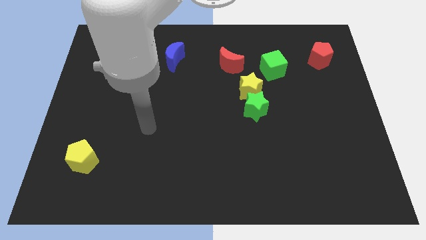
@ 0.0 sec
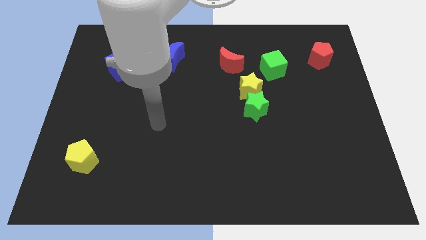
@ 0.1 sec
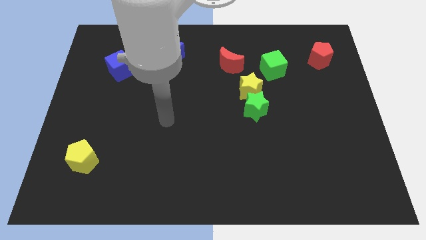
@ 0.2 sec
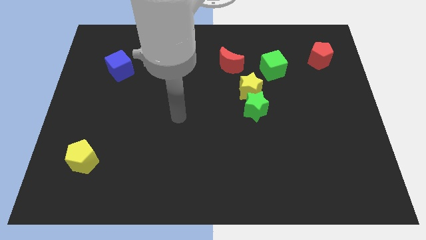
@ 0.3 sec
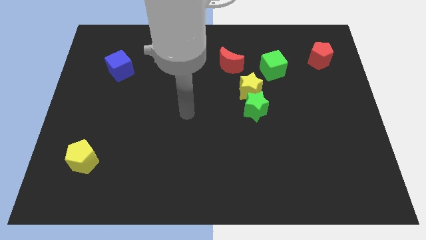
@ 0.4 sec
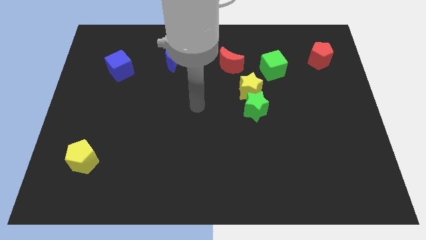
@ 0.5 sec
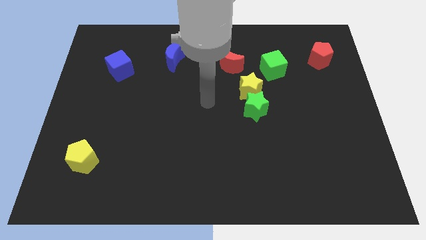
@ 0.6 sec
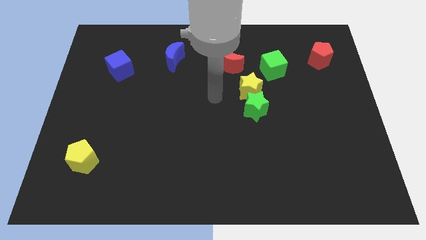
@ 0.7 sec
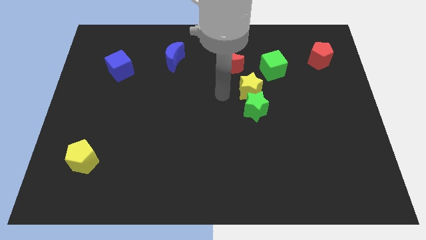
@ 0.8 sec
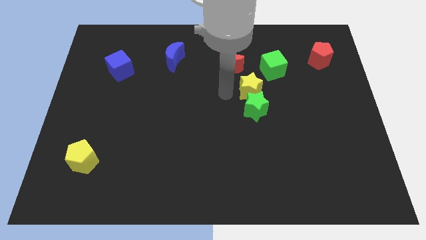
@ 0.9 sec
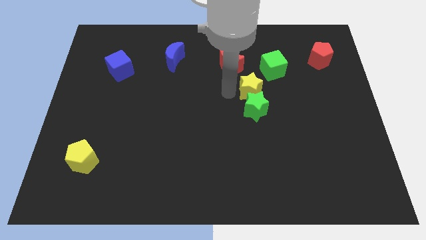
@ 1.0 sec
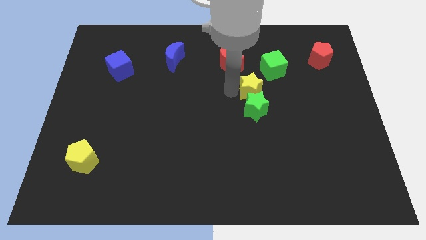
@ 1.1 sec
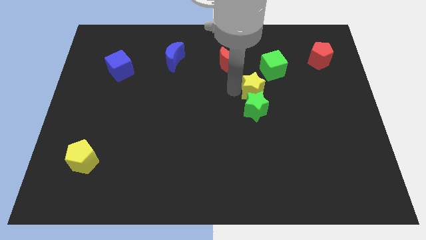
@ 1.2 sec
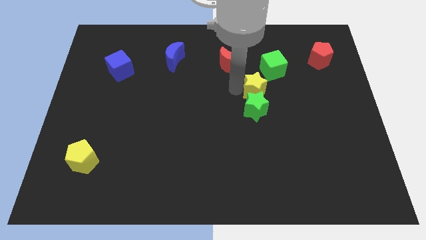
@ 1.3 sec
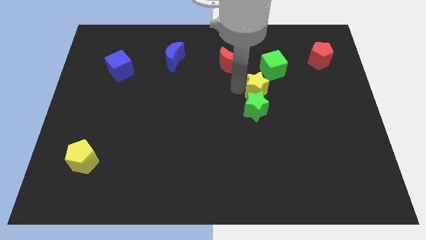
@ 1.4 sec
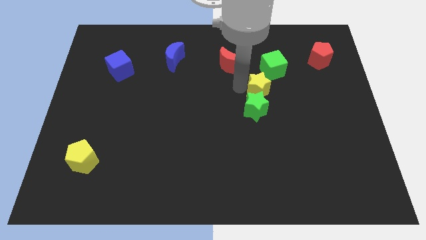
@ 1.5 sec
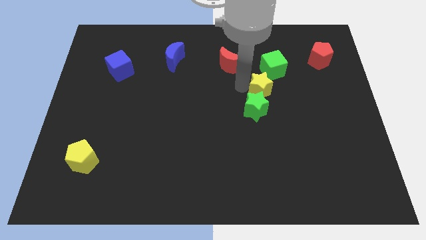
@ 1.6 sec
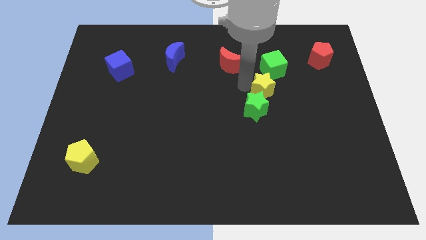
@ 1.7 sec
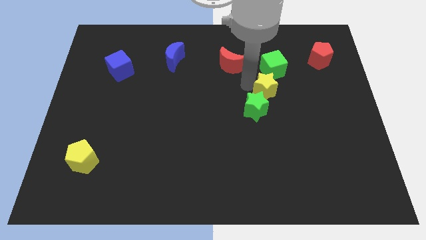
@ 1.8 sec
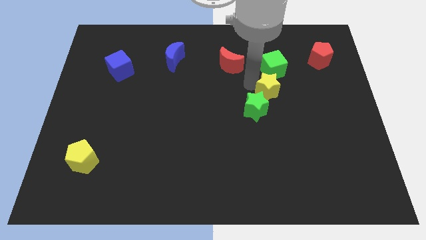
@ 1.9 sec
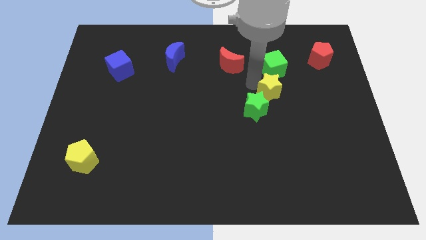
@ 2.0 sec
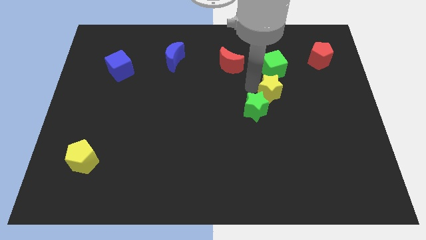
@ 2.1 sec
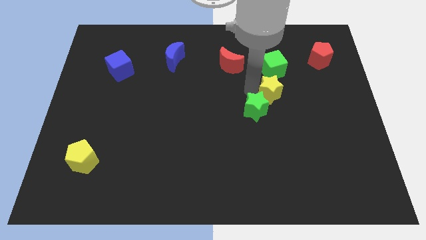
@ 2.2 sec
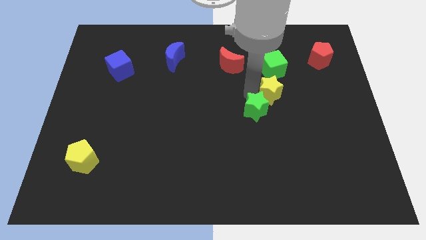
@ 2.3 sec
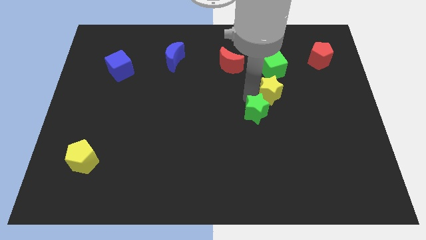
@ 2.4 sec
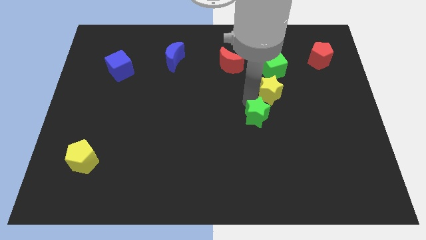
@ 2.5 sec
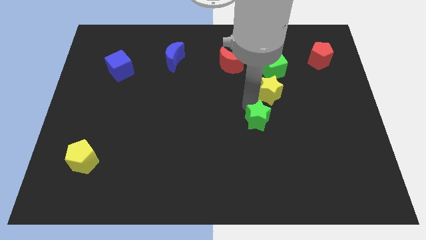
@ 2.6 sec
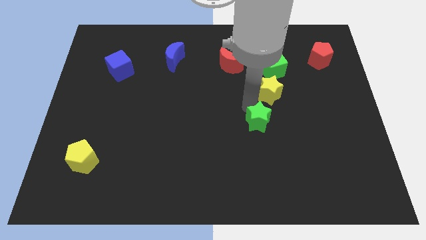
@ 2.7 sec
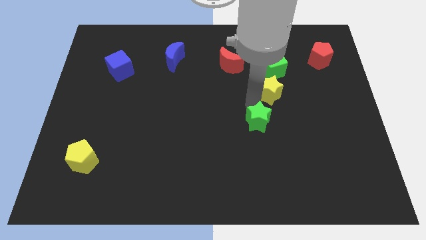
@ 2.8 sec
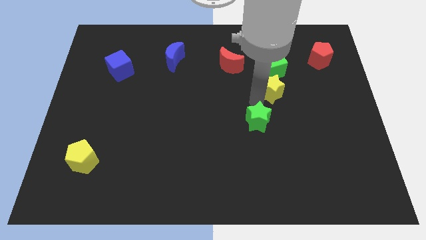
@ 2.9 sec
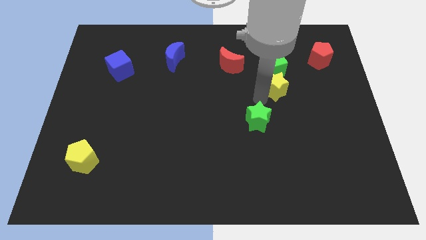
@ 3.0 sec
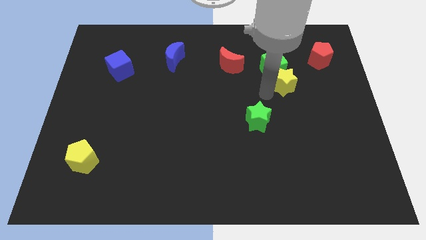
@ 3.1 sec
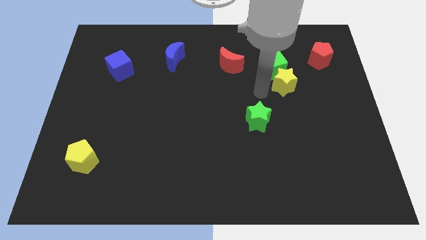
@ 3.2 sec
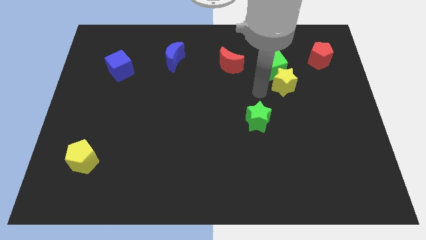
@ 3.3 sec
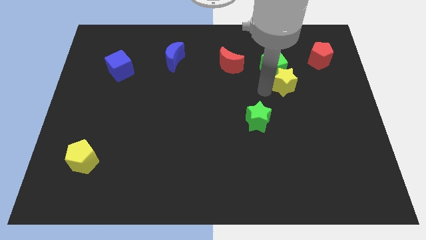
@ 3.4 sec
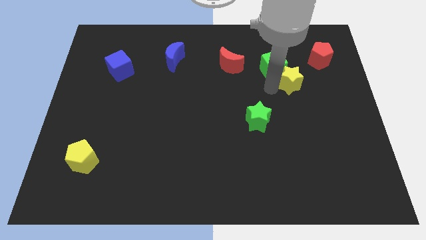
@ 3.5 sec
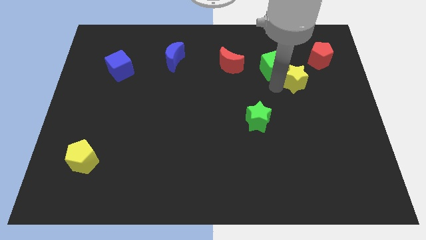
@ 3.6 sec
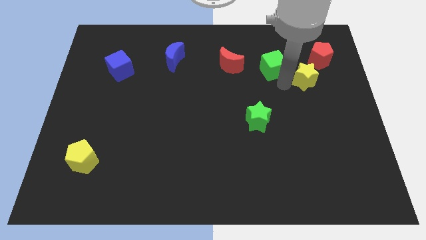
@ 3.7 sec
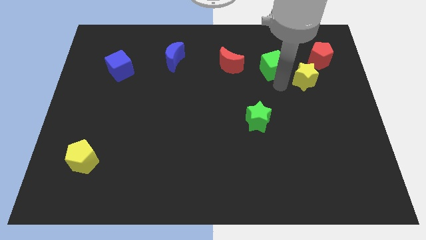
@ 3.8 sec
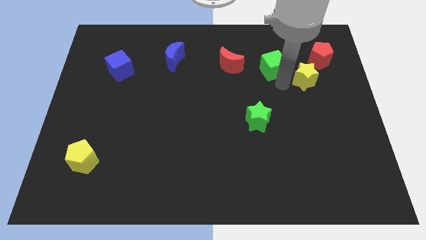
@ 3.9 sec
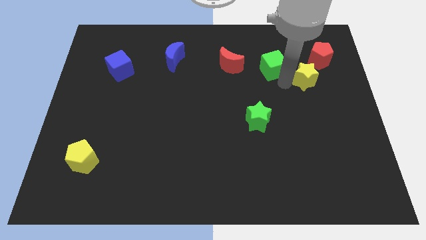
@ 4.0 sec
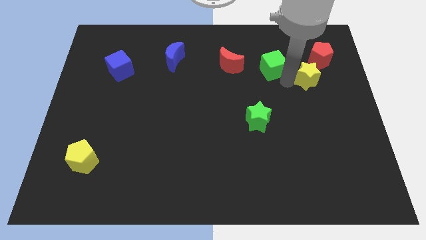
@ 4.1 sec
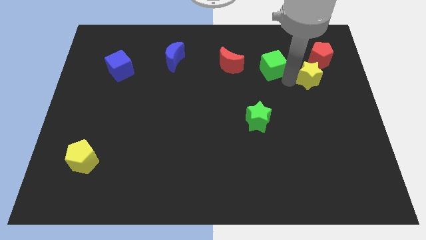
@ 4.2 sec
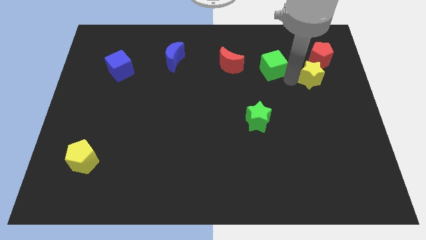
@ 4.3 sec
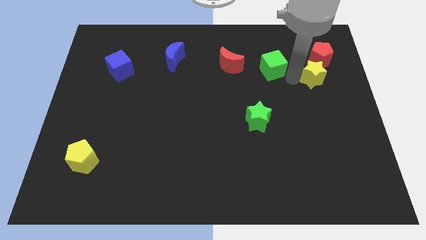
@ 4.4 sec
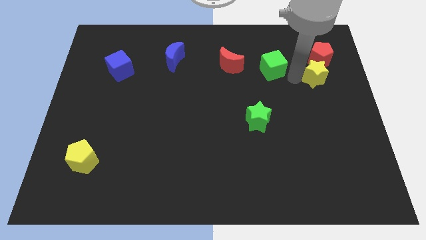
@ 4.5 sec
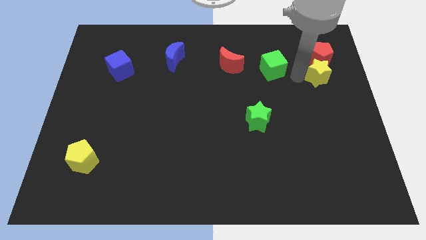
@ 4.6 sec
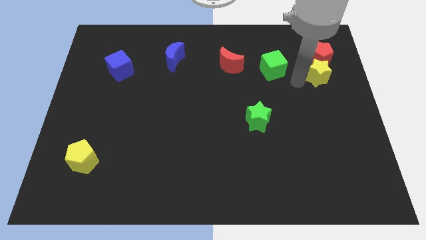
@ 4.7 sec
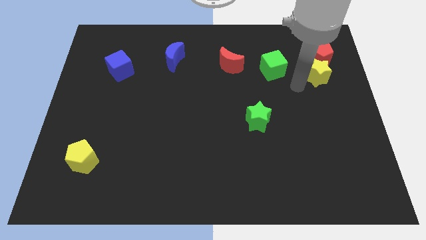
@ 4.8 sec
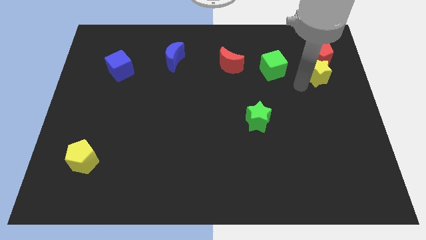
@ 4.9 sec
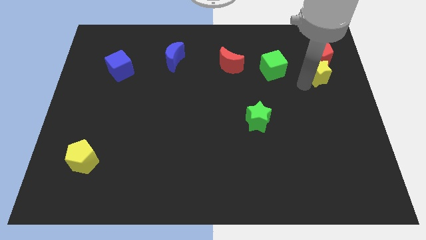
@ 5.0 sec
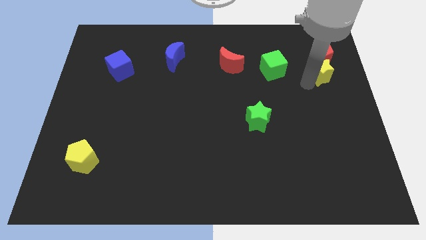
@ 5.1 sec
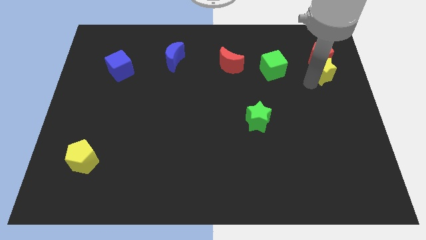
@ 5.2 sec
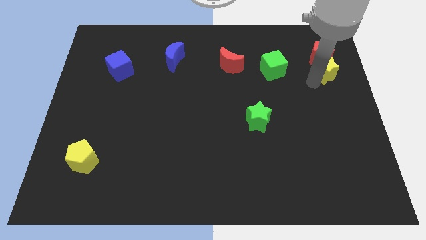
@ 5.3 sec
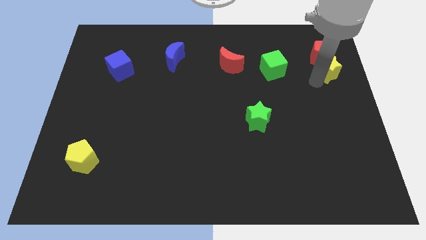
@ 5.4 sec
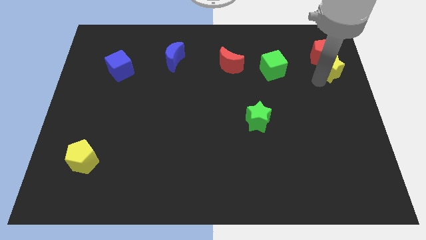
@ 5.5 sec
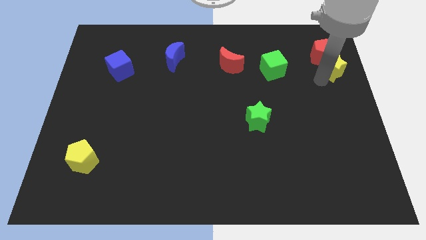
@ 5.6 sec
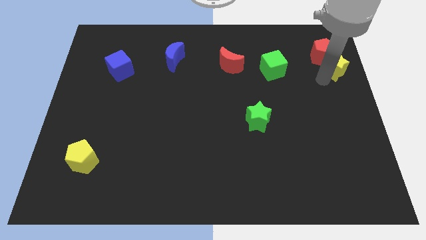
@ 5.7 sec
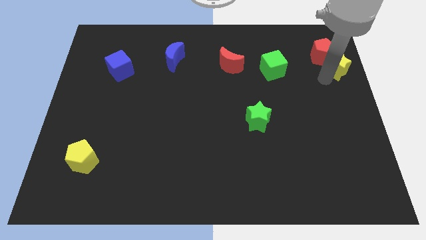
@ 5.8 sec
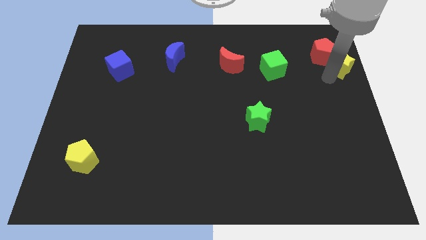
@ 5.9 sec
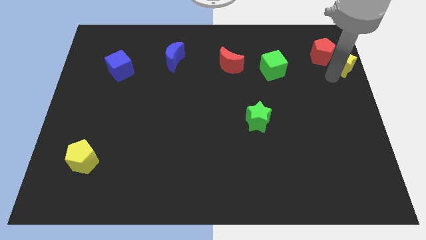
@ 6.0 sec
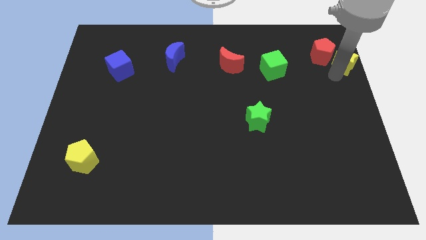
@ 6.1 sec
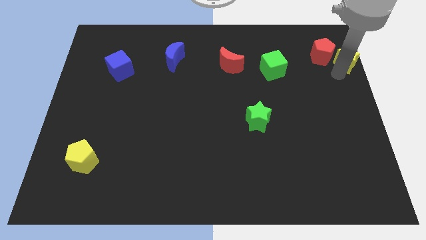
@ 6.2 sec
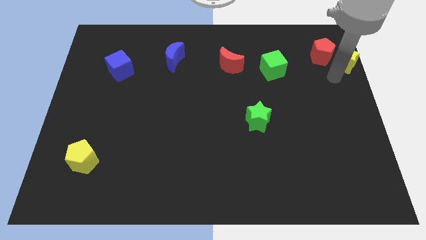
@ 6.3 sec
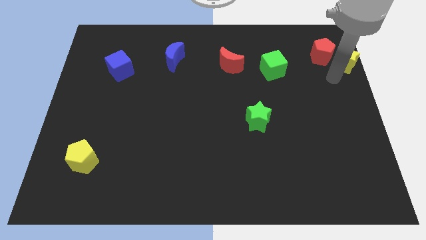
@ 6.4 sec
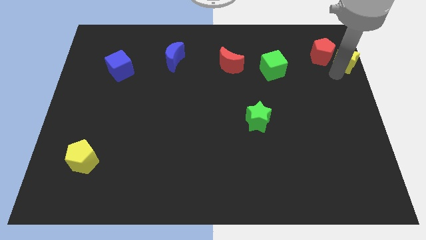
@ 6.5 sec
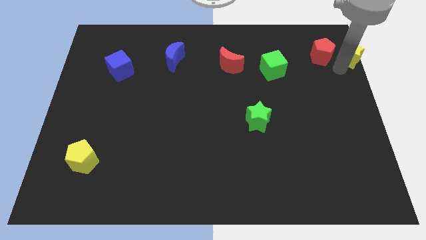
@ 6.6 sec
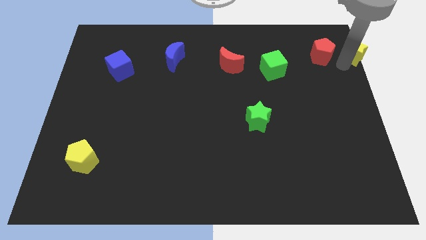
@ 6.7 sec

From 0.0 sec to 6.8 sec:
slide the yellow star to the upper right corner
